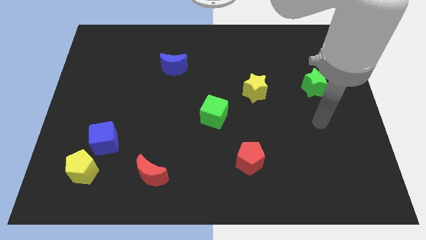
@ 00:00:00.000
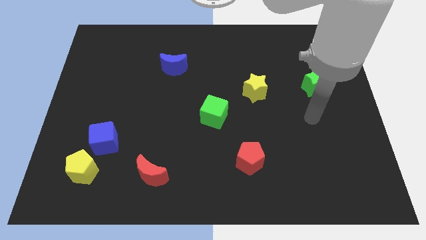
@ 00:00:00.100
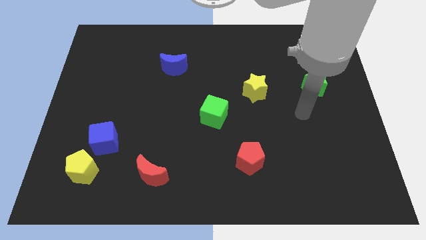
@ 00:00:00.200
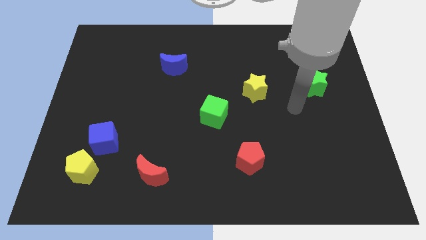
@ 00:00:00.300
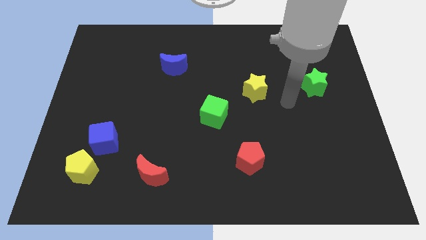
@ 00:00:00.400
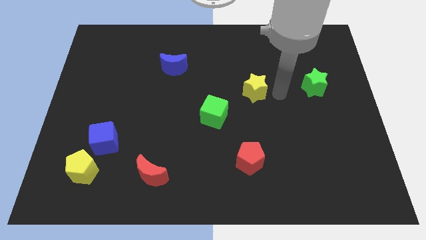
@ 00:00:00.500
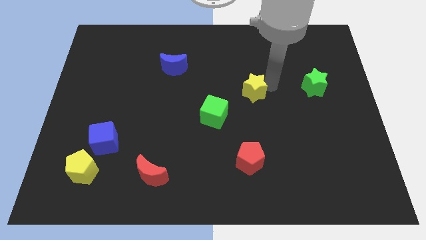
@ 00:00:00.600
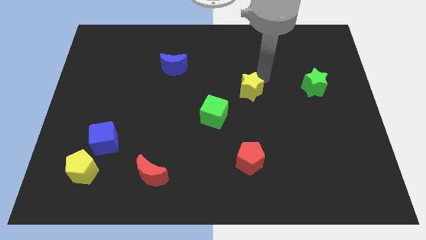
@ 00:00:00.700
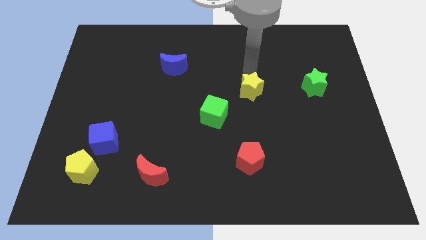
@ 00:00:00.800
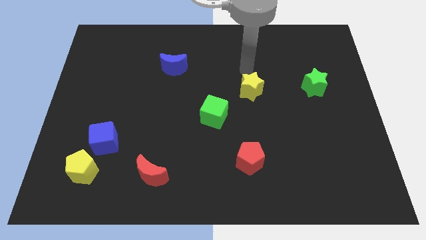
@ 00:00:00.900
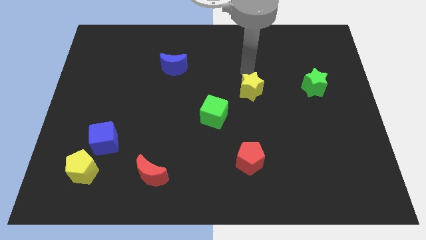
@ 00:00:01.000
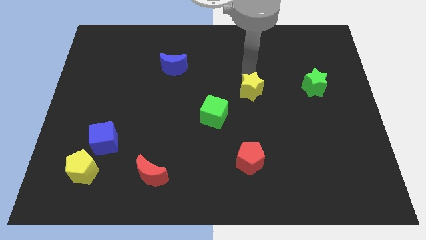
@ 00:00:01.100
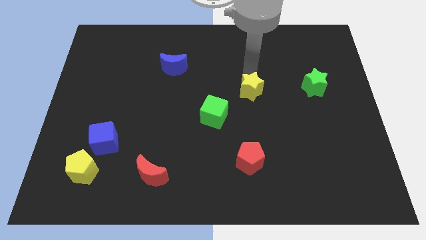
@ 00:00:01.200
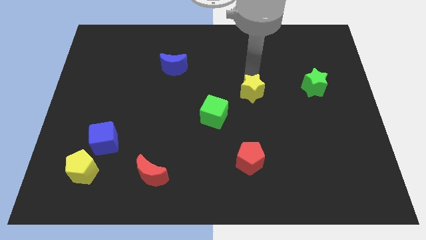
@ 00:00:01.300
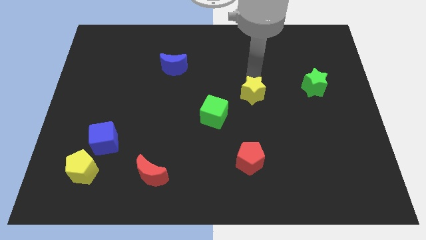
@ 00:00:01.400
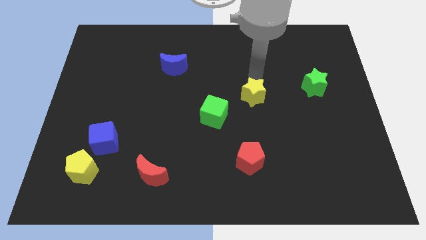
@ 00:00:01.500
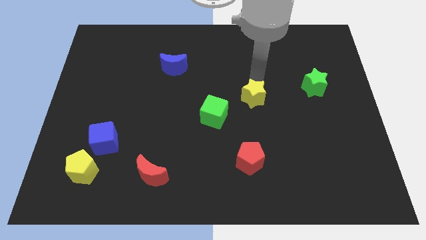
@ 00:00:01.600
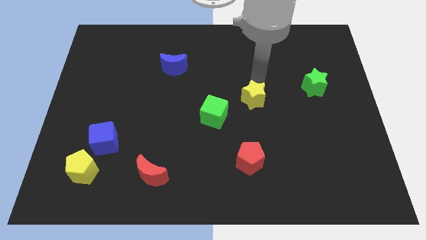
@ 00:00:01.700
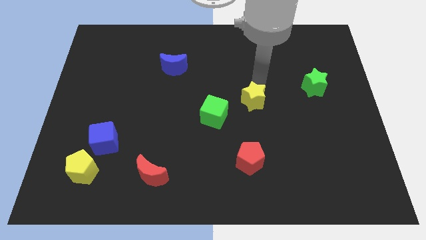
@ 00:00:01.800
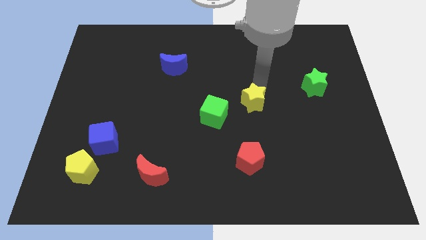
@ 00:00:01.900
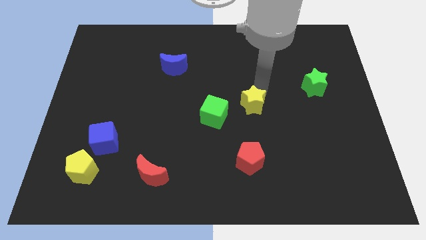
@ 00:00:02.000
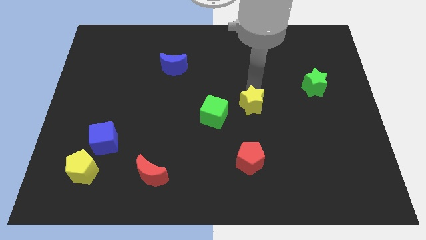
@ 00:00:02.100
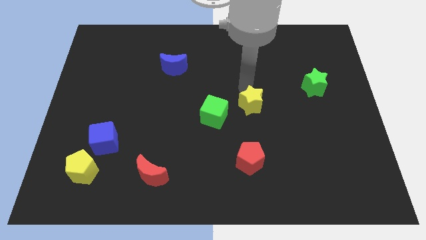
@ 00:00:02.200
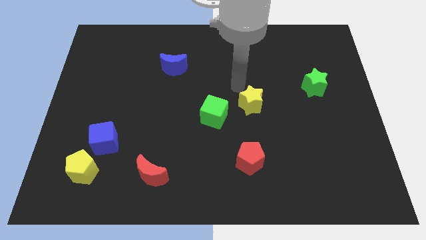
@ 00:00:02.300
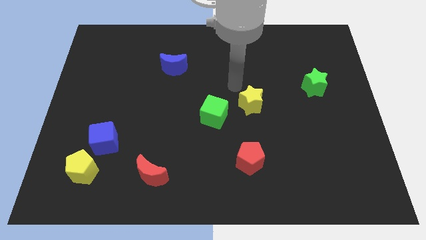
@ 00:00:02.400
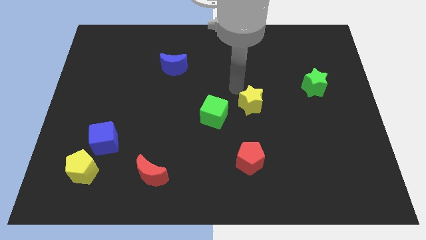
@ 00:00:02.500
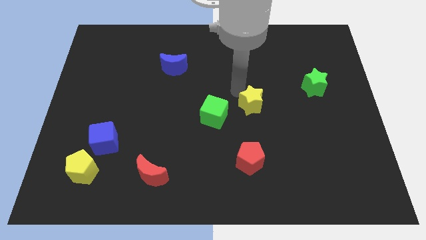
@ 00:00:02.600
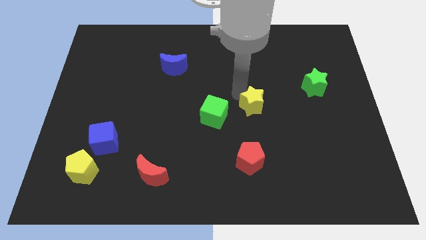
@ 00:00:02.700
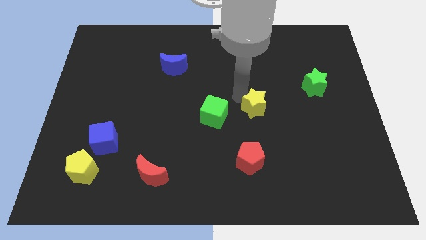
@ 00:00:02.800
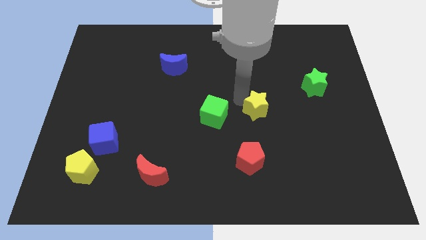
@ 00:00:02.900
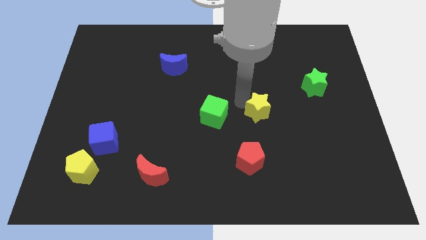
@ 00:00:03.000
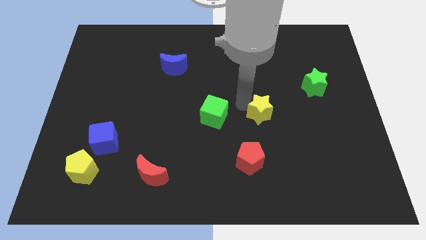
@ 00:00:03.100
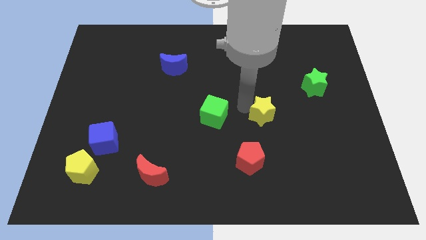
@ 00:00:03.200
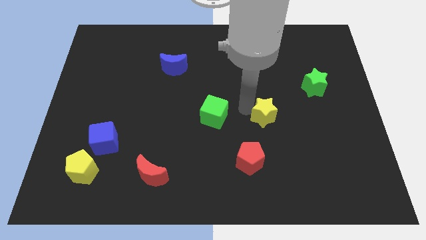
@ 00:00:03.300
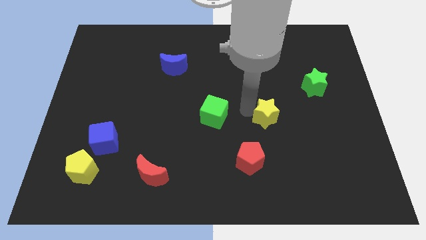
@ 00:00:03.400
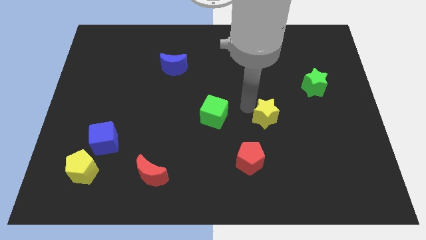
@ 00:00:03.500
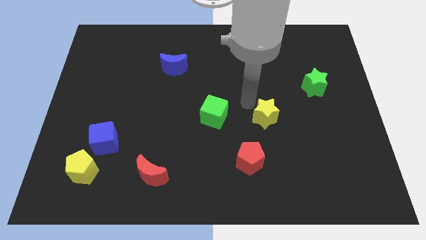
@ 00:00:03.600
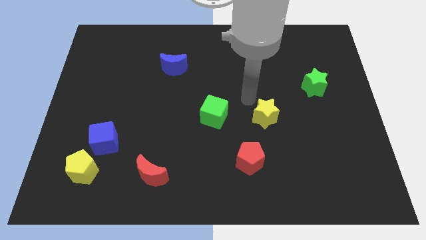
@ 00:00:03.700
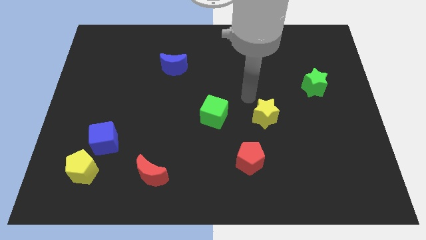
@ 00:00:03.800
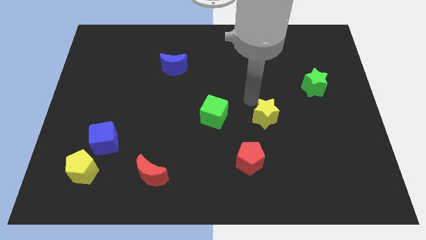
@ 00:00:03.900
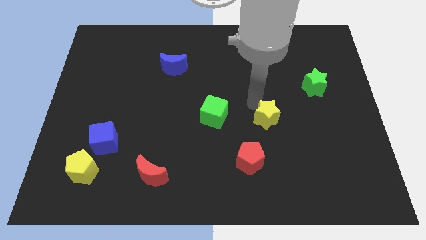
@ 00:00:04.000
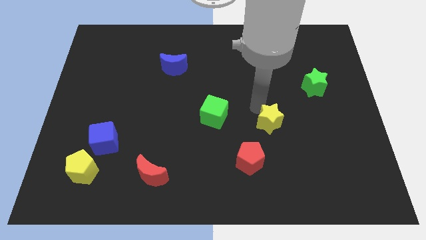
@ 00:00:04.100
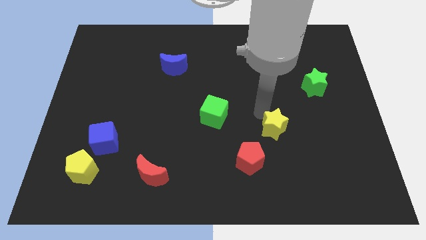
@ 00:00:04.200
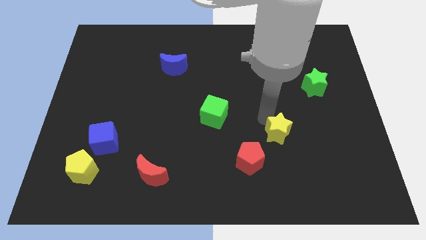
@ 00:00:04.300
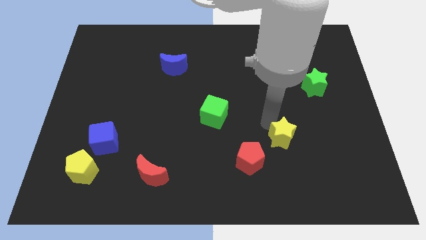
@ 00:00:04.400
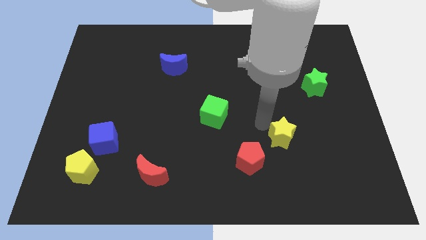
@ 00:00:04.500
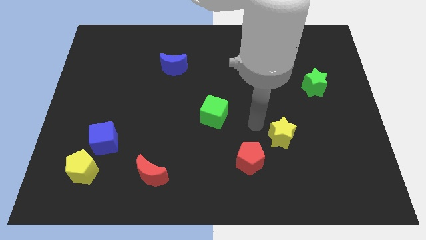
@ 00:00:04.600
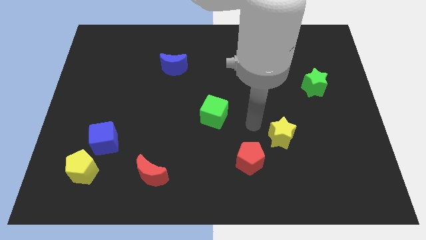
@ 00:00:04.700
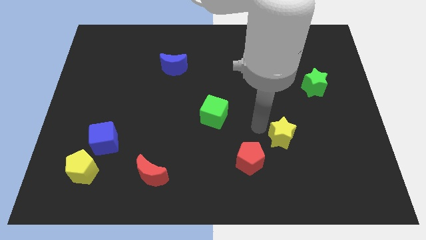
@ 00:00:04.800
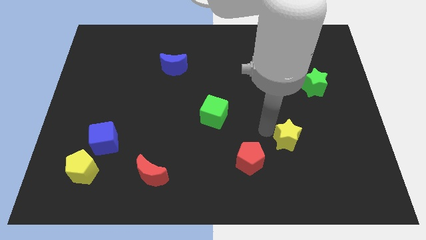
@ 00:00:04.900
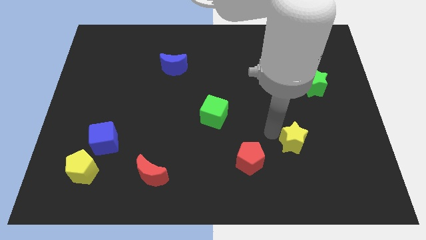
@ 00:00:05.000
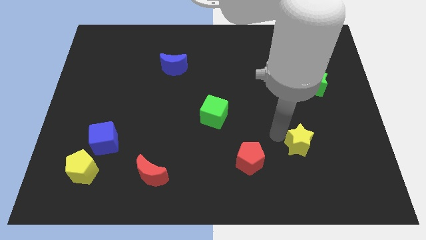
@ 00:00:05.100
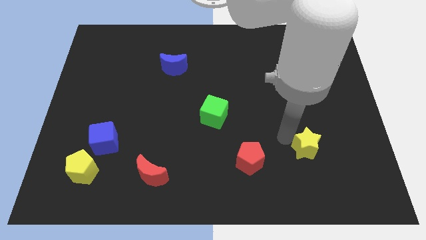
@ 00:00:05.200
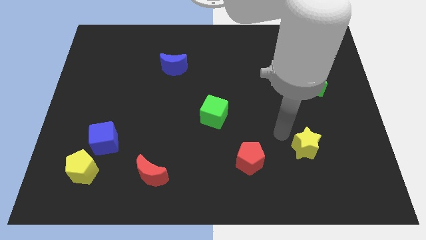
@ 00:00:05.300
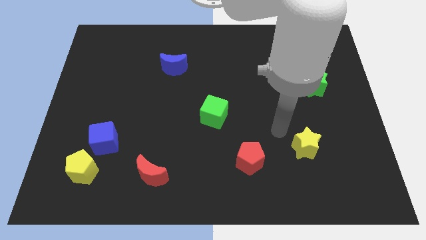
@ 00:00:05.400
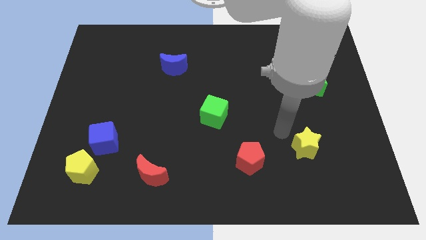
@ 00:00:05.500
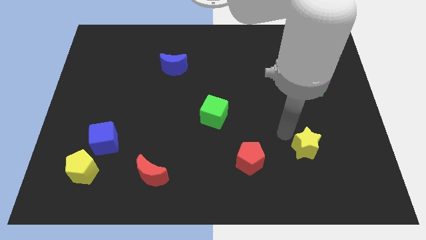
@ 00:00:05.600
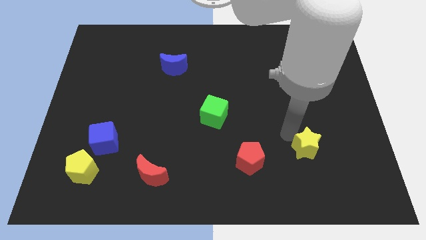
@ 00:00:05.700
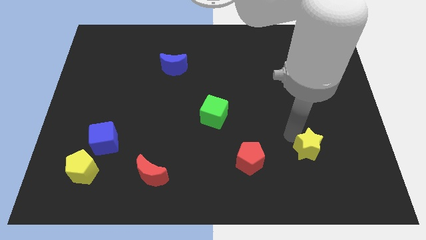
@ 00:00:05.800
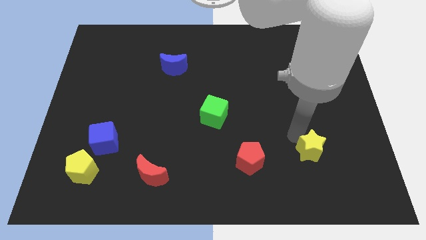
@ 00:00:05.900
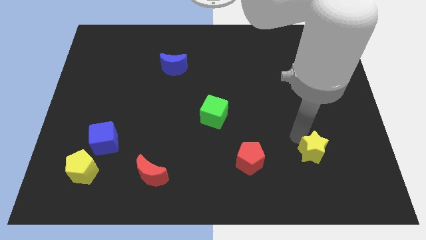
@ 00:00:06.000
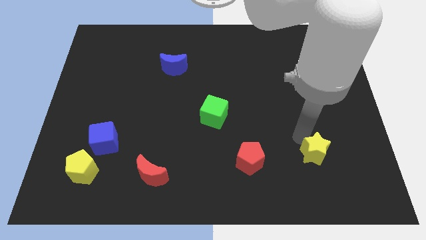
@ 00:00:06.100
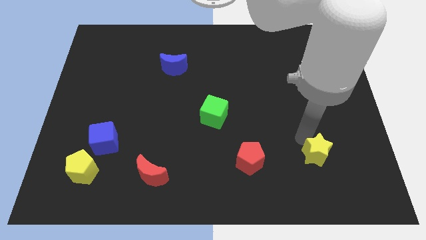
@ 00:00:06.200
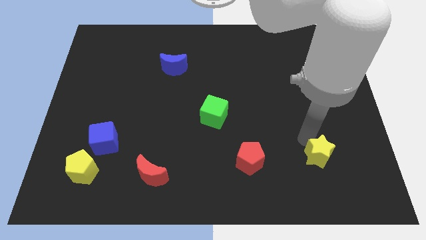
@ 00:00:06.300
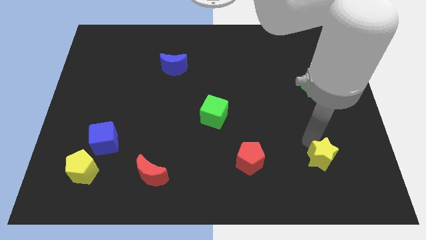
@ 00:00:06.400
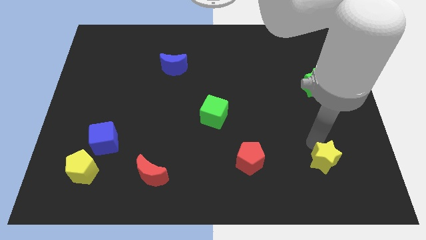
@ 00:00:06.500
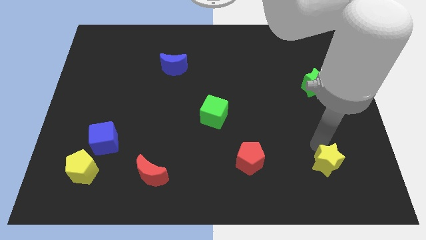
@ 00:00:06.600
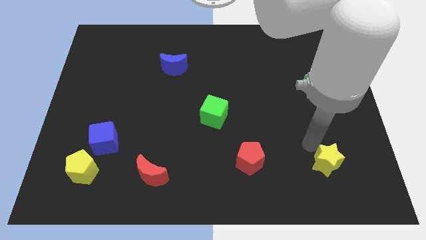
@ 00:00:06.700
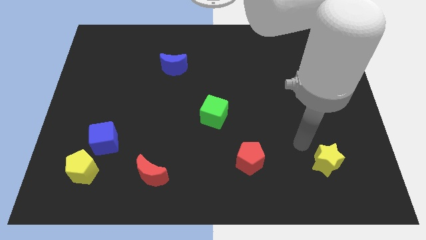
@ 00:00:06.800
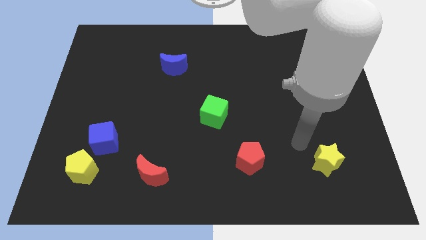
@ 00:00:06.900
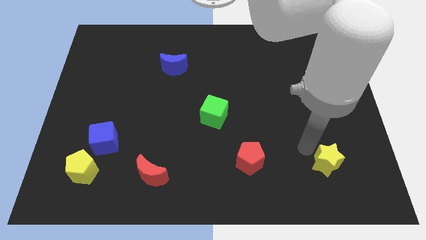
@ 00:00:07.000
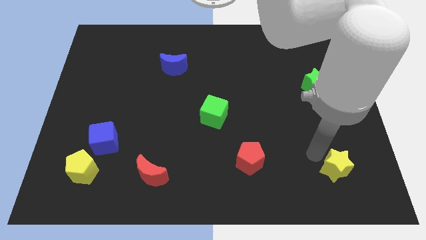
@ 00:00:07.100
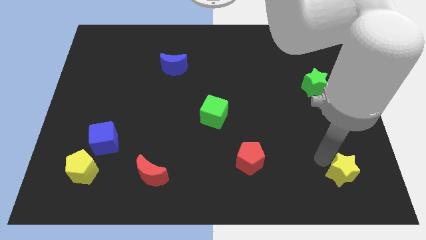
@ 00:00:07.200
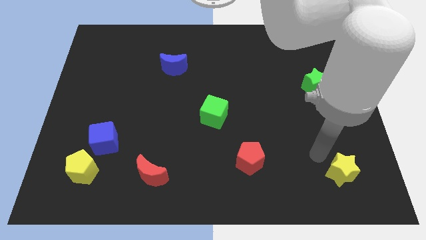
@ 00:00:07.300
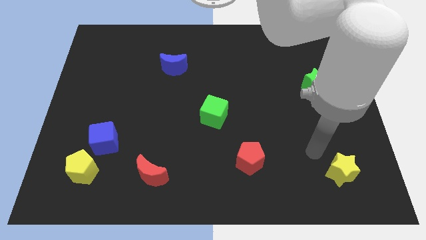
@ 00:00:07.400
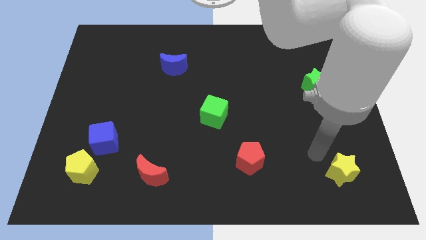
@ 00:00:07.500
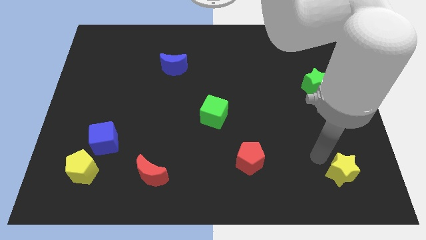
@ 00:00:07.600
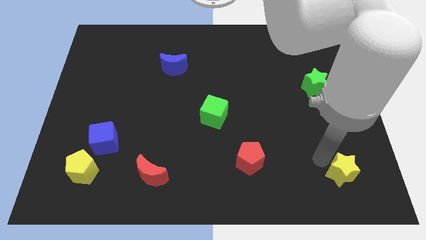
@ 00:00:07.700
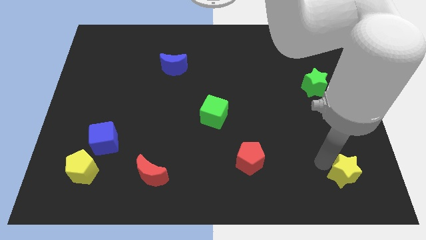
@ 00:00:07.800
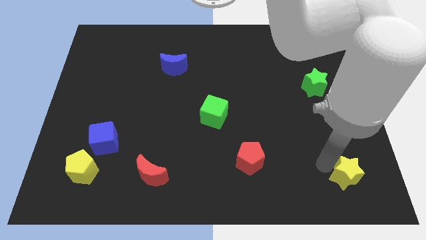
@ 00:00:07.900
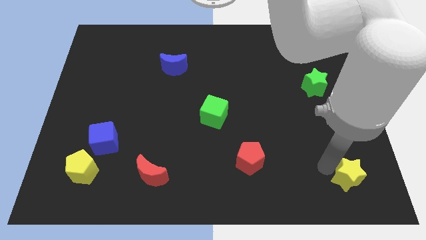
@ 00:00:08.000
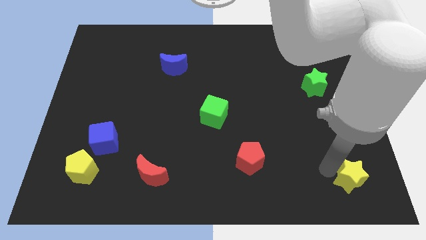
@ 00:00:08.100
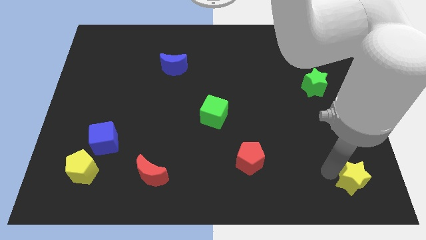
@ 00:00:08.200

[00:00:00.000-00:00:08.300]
move the yellow star to the bottom right
